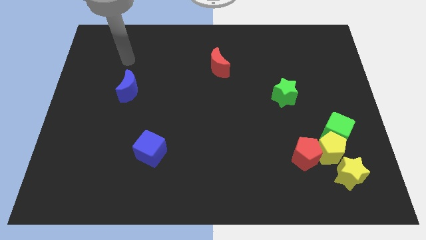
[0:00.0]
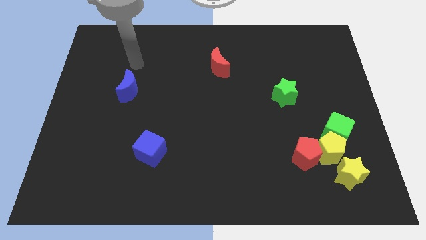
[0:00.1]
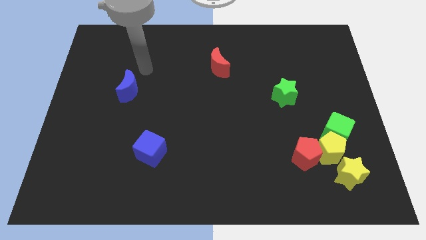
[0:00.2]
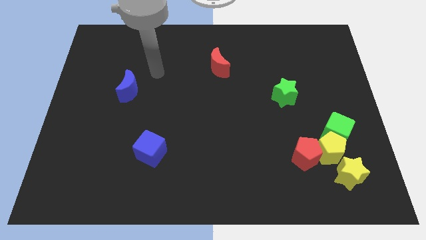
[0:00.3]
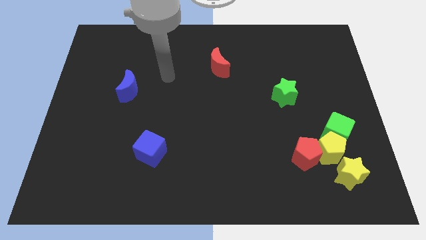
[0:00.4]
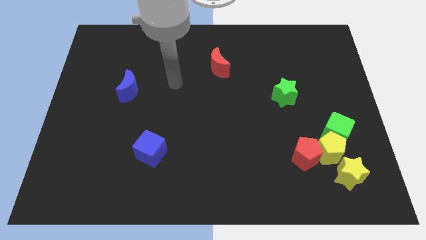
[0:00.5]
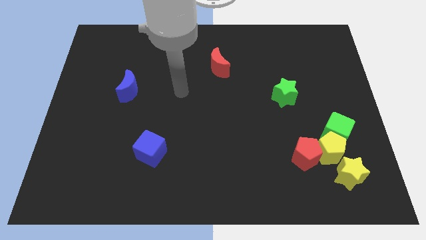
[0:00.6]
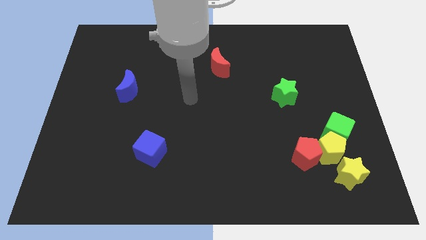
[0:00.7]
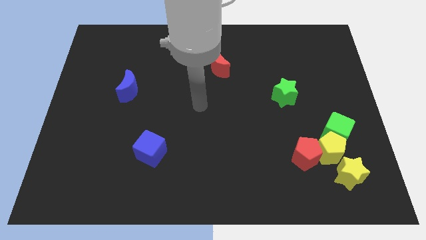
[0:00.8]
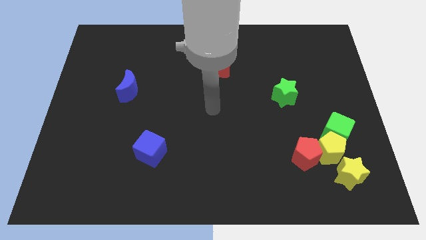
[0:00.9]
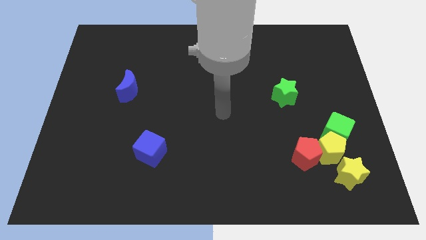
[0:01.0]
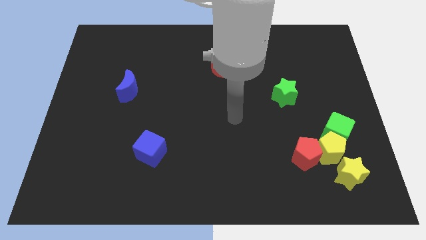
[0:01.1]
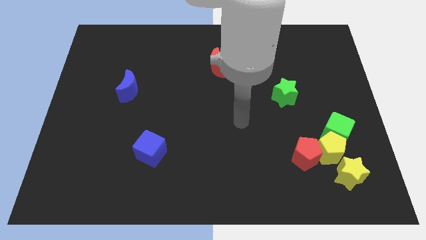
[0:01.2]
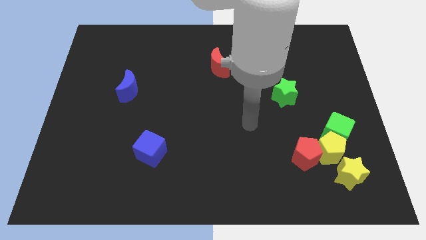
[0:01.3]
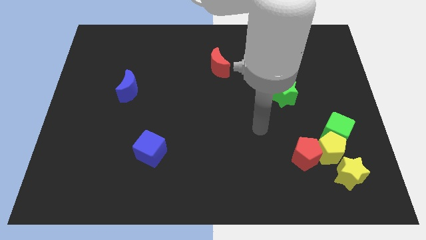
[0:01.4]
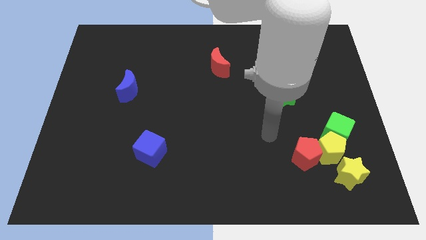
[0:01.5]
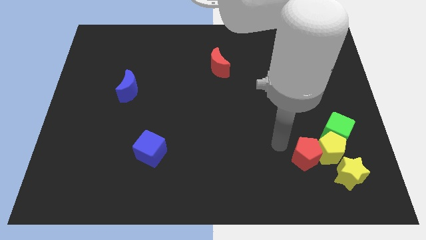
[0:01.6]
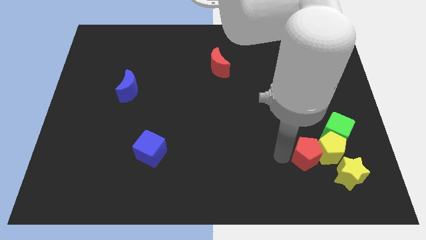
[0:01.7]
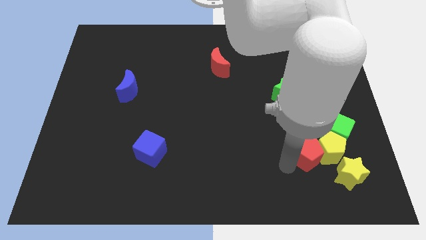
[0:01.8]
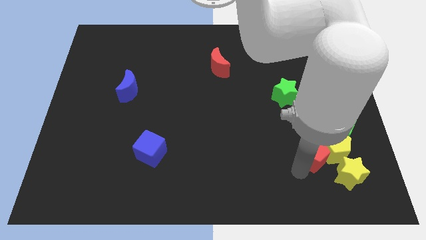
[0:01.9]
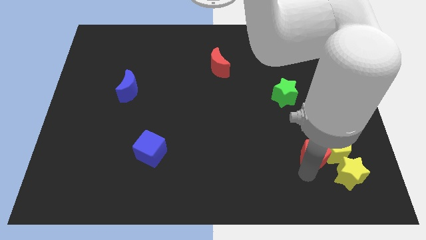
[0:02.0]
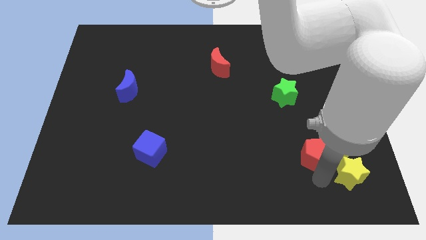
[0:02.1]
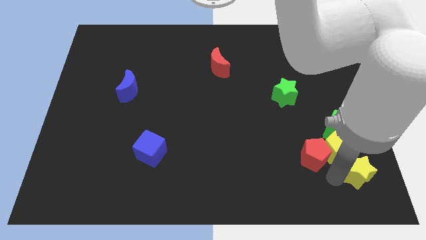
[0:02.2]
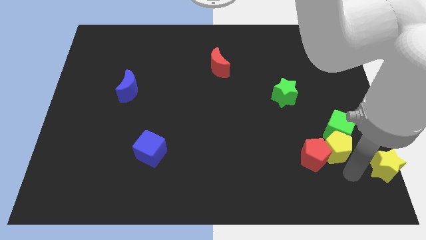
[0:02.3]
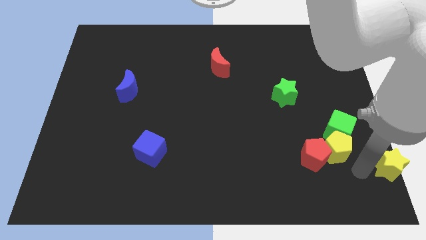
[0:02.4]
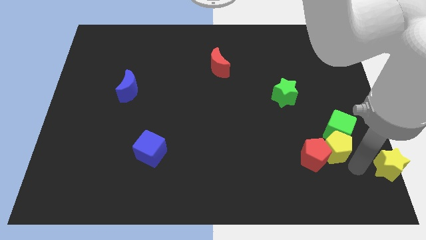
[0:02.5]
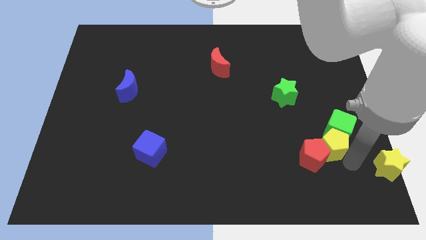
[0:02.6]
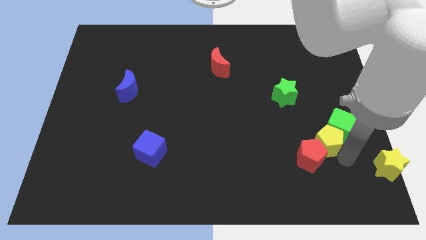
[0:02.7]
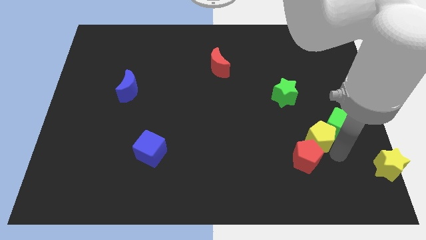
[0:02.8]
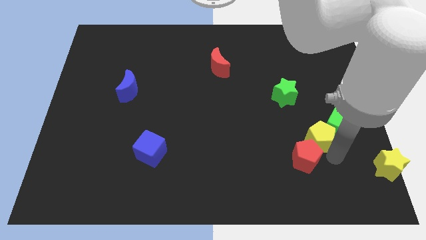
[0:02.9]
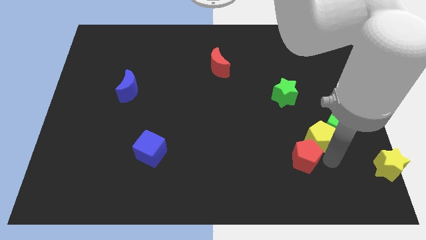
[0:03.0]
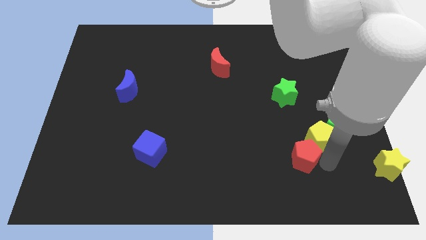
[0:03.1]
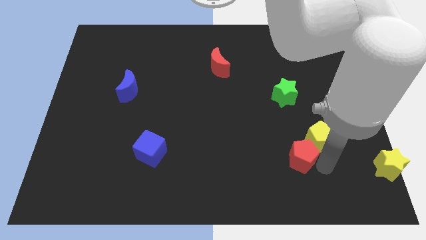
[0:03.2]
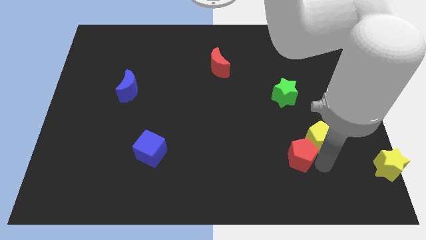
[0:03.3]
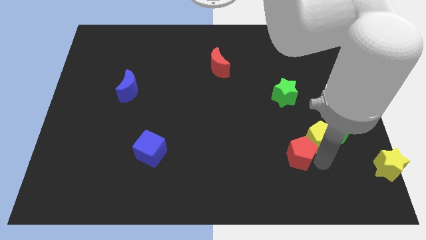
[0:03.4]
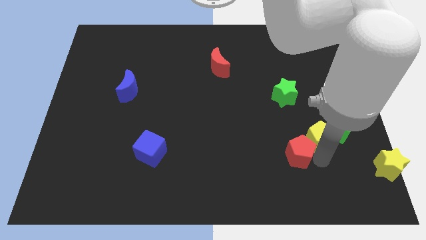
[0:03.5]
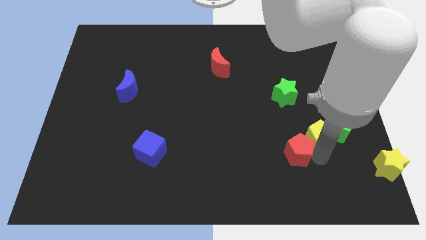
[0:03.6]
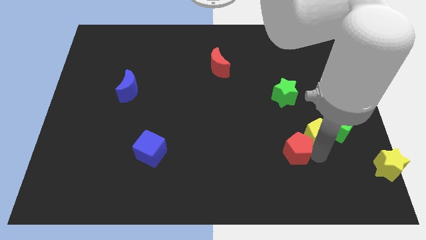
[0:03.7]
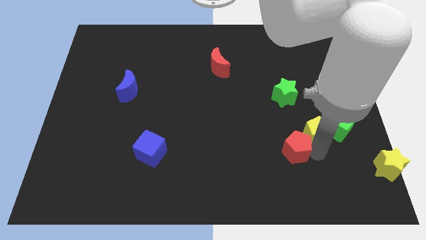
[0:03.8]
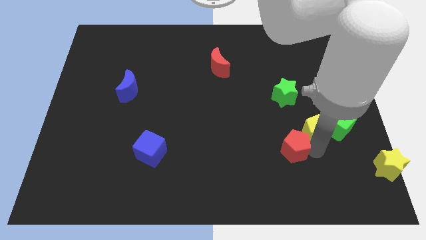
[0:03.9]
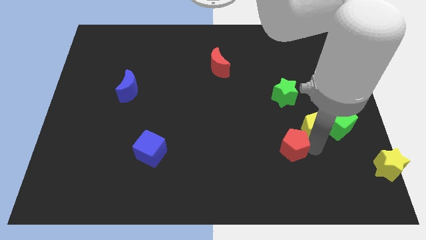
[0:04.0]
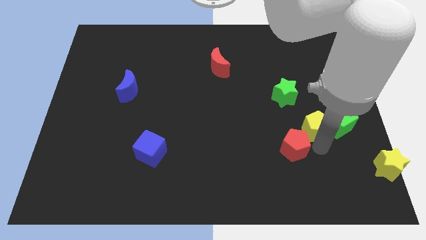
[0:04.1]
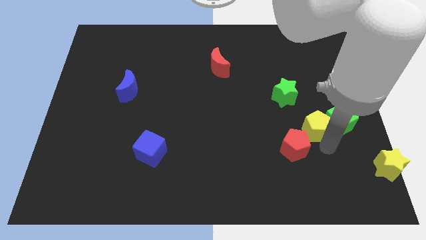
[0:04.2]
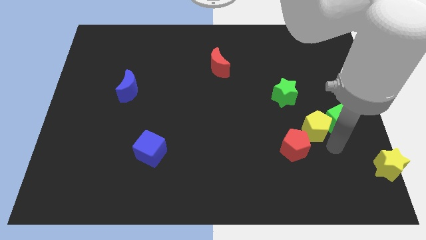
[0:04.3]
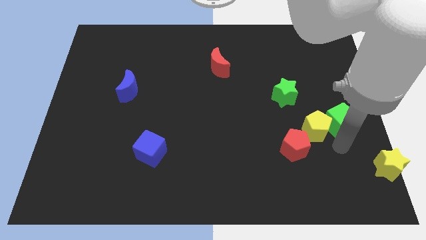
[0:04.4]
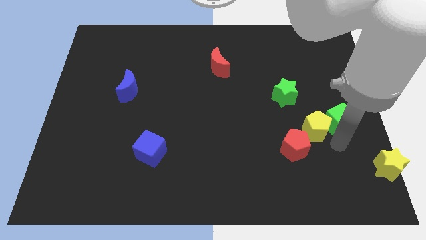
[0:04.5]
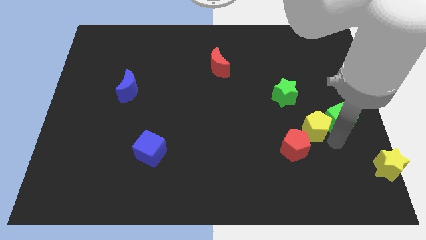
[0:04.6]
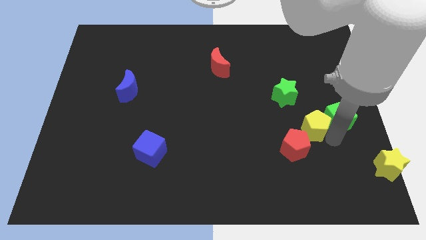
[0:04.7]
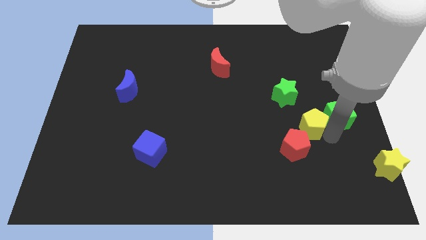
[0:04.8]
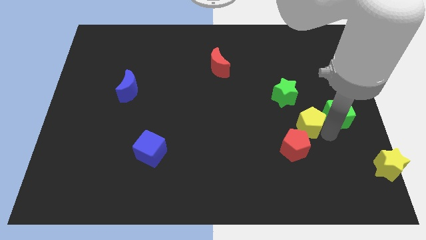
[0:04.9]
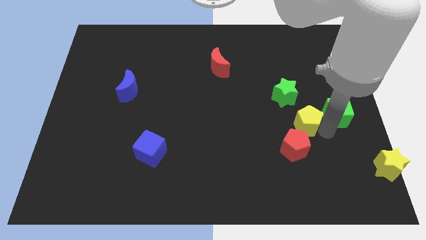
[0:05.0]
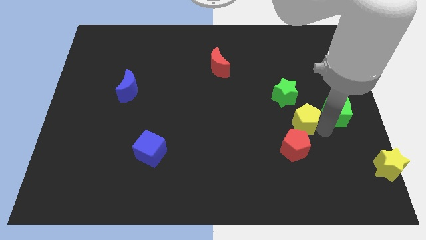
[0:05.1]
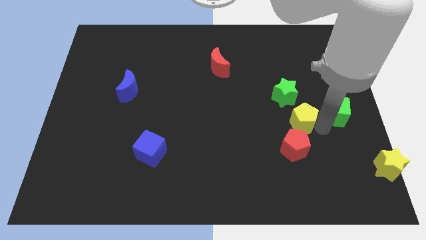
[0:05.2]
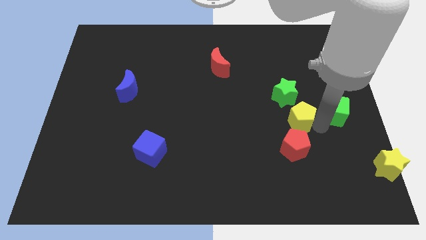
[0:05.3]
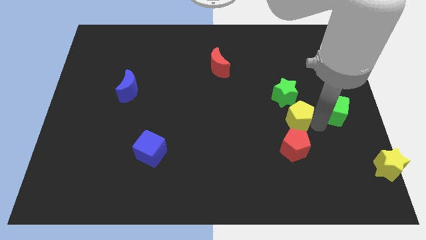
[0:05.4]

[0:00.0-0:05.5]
move the yellow pentagon away from the clump

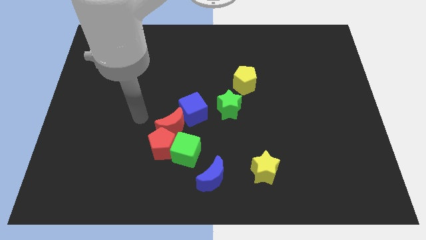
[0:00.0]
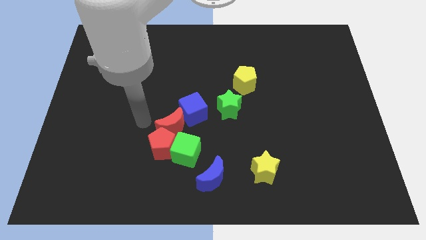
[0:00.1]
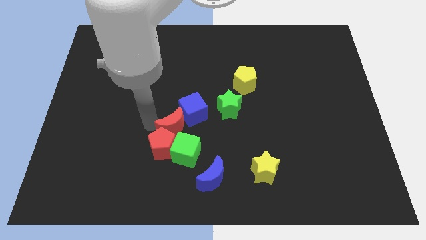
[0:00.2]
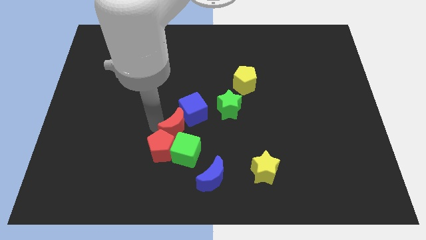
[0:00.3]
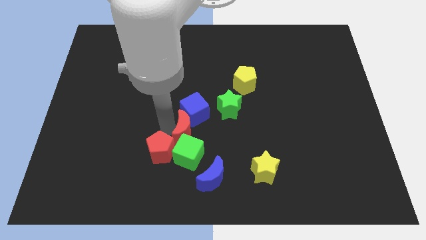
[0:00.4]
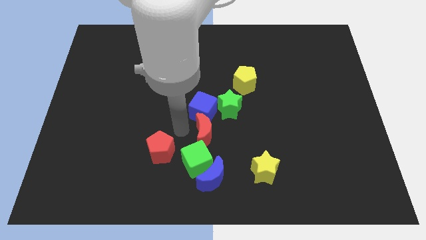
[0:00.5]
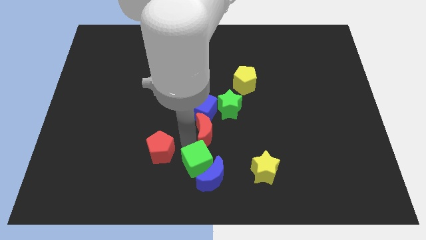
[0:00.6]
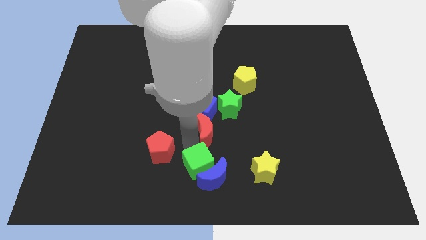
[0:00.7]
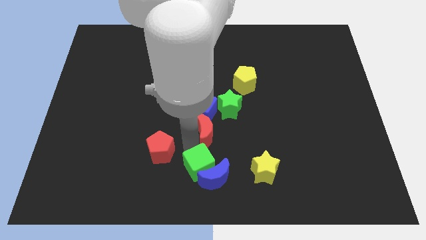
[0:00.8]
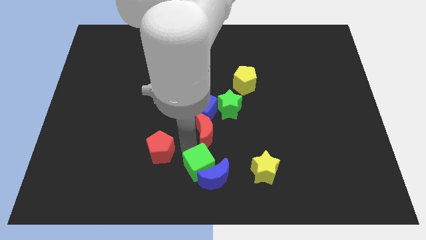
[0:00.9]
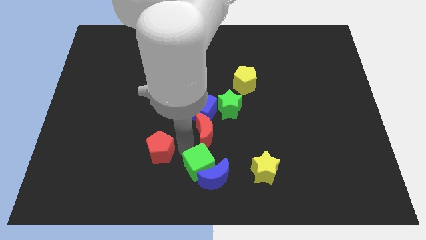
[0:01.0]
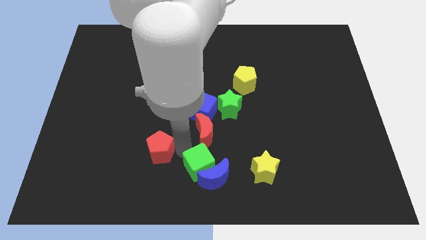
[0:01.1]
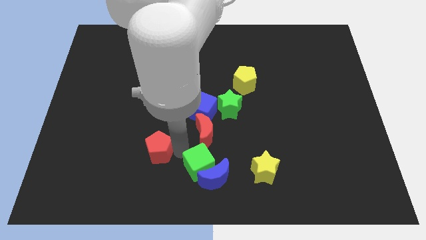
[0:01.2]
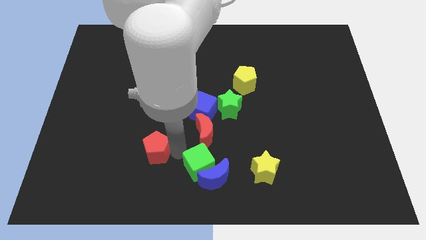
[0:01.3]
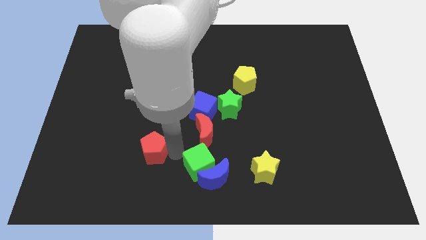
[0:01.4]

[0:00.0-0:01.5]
separate the red pentagon from the red moon and green cube

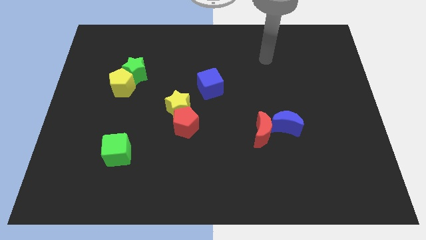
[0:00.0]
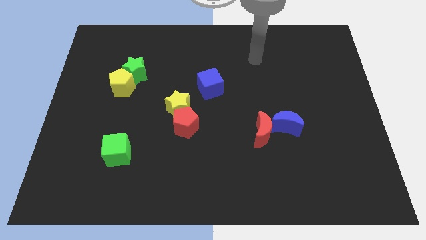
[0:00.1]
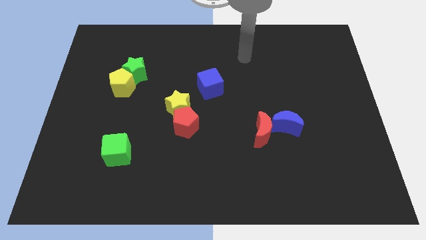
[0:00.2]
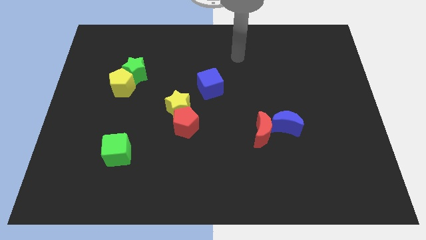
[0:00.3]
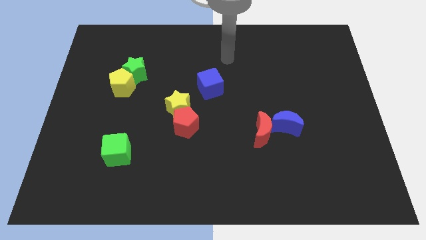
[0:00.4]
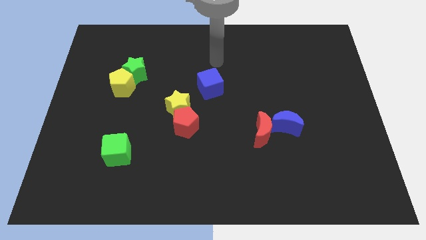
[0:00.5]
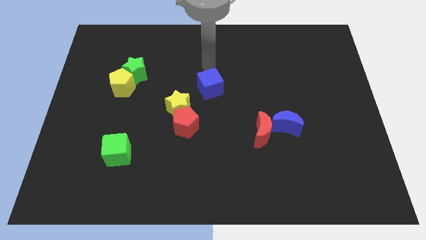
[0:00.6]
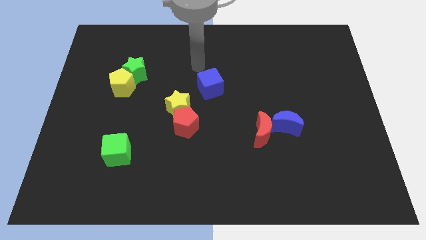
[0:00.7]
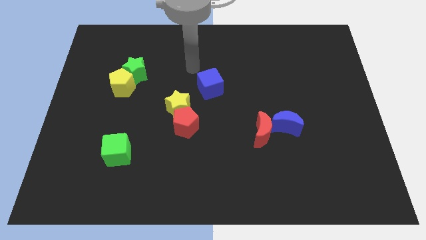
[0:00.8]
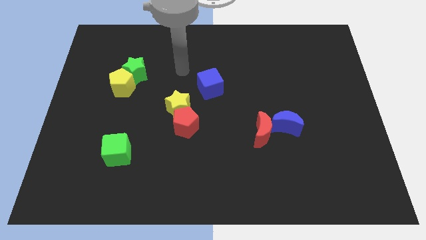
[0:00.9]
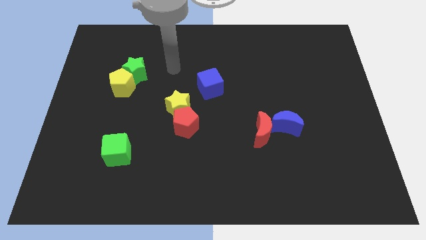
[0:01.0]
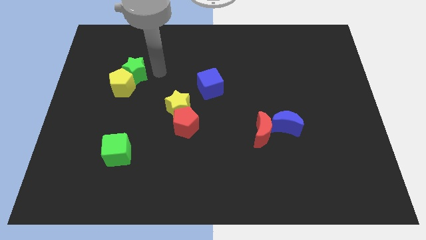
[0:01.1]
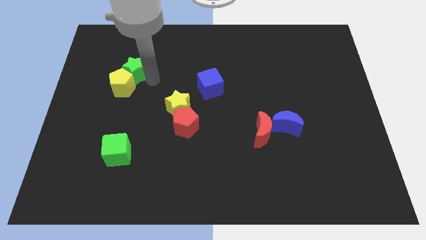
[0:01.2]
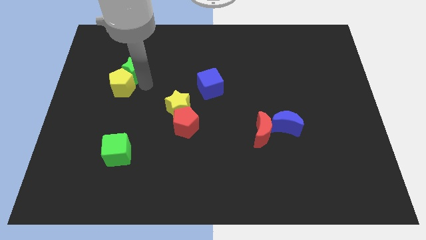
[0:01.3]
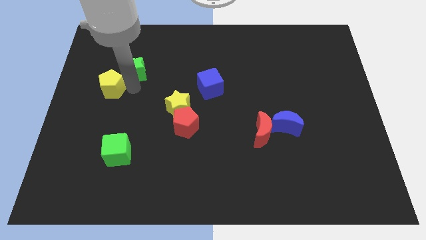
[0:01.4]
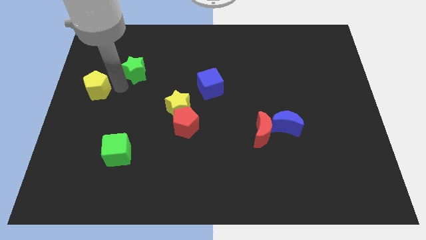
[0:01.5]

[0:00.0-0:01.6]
move the green star away from the yellow pentagon

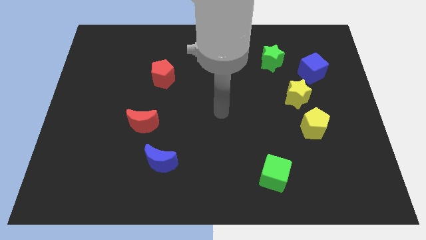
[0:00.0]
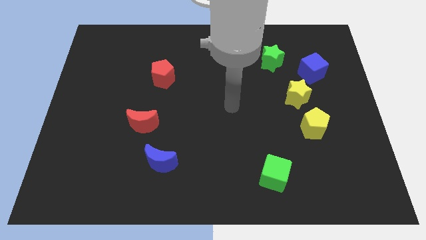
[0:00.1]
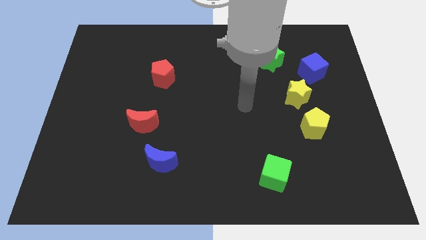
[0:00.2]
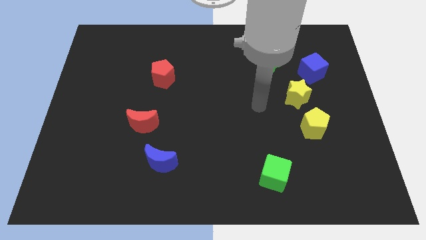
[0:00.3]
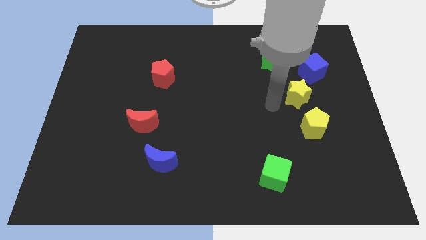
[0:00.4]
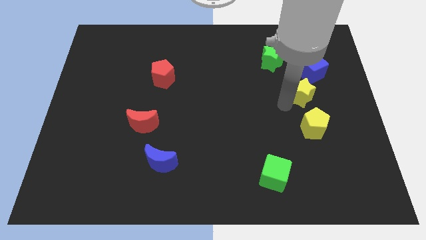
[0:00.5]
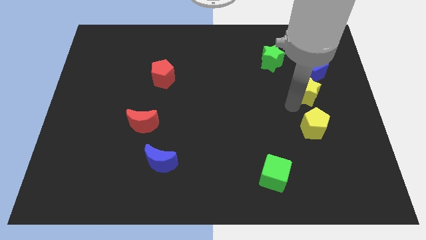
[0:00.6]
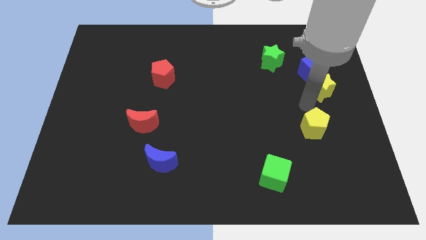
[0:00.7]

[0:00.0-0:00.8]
separate the yellow pentagon from the yellow star
